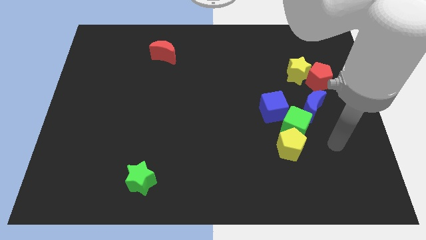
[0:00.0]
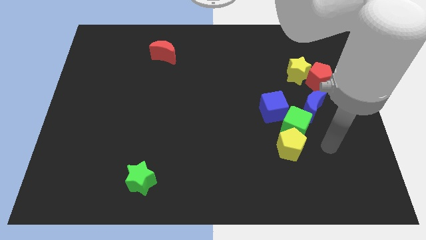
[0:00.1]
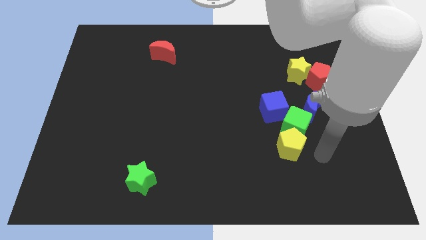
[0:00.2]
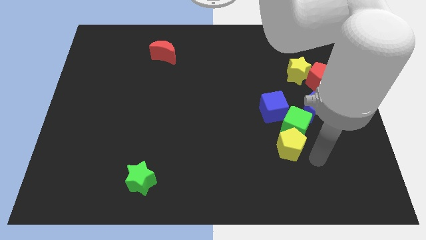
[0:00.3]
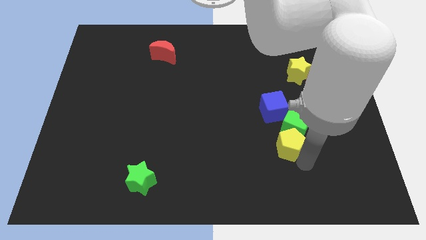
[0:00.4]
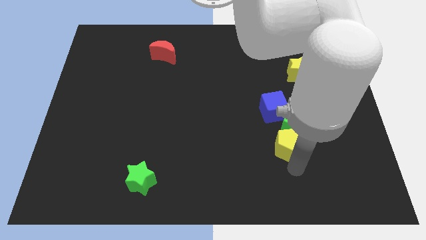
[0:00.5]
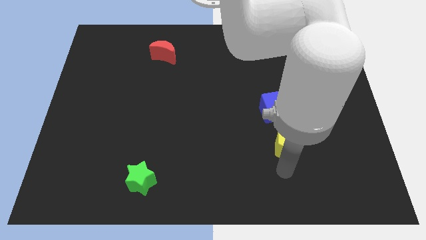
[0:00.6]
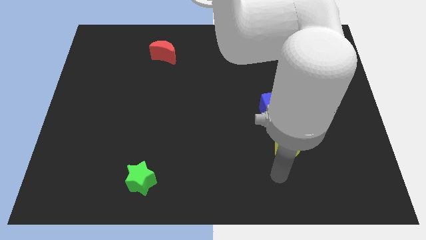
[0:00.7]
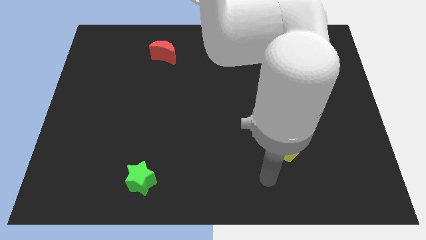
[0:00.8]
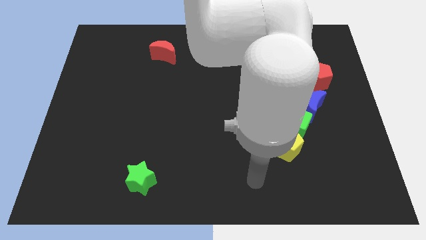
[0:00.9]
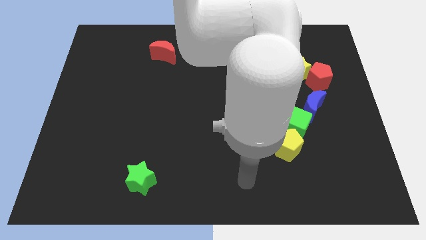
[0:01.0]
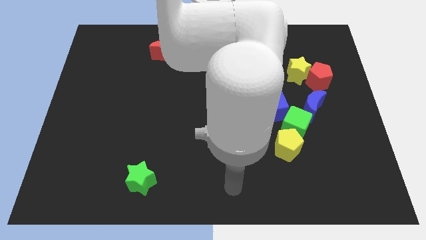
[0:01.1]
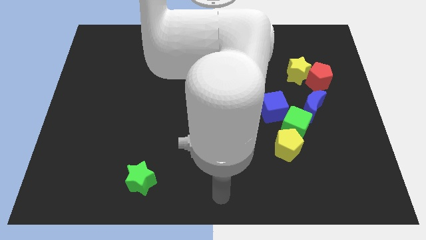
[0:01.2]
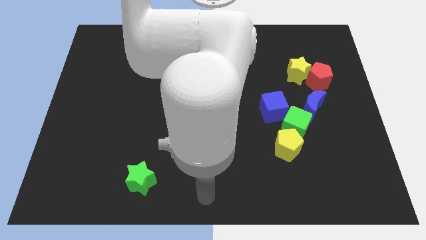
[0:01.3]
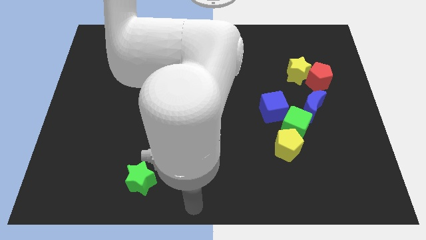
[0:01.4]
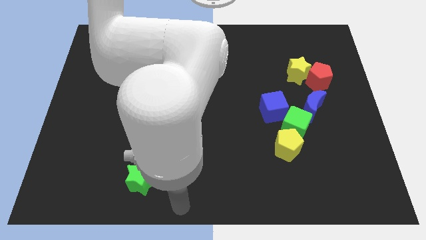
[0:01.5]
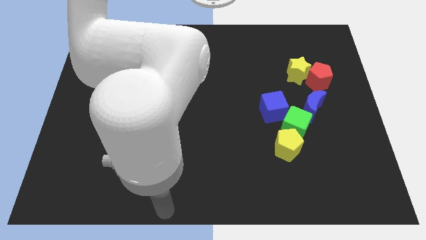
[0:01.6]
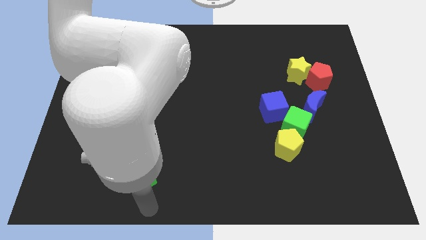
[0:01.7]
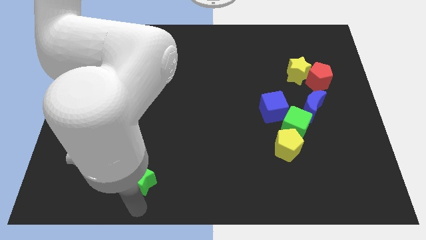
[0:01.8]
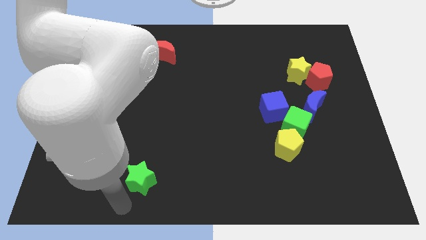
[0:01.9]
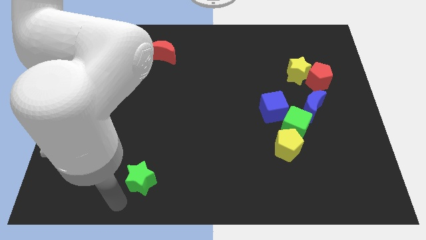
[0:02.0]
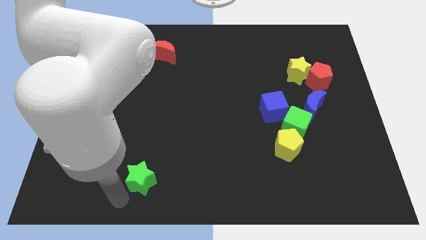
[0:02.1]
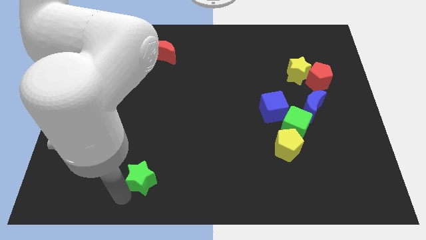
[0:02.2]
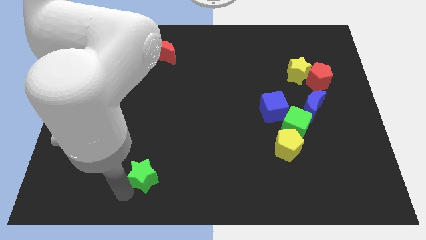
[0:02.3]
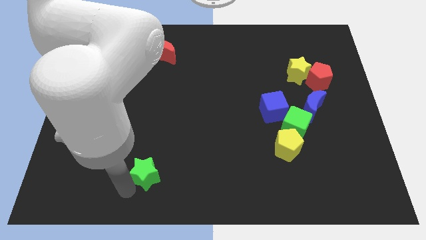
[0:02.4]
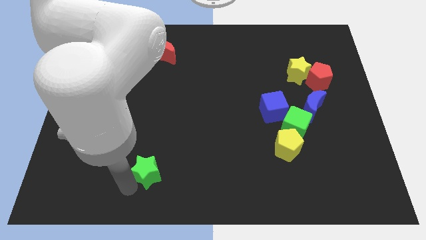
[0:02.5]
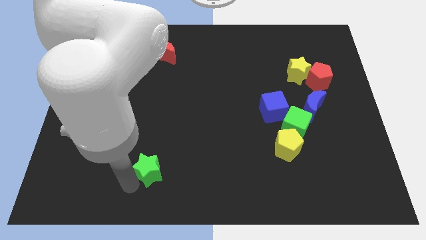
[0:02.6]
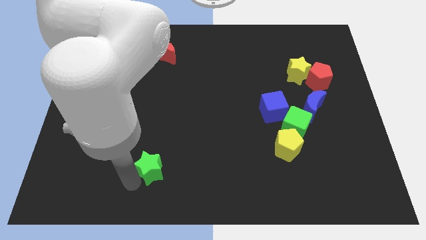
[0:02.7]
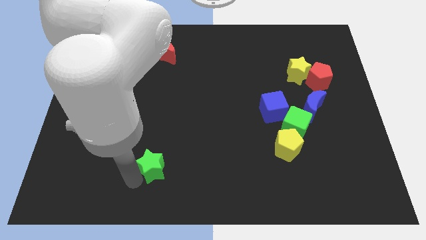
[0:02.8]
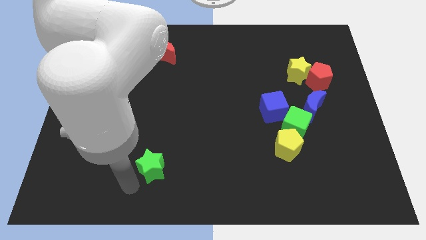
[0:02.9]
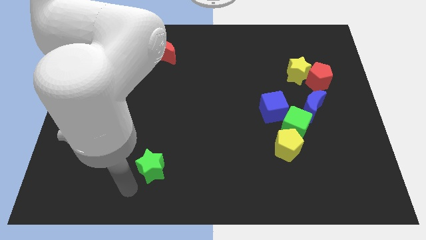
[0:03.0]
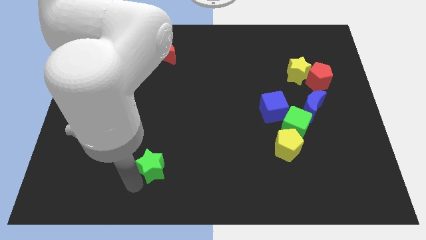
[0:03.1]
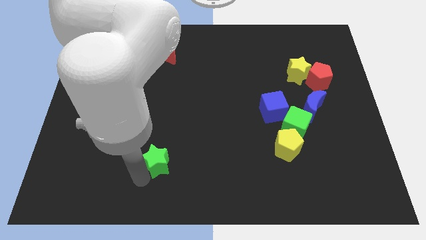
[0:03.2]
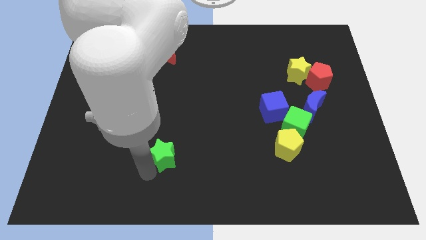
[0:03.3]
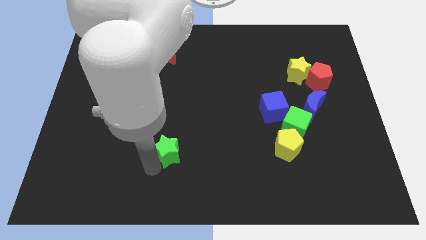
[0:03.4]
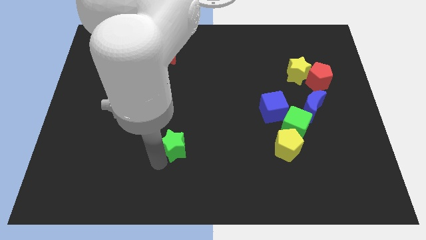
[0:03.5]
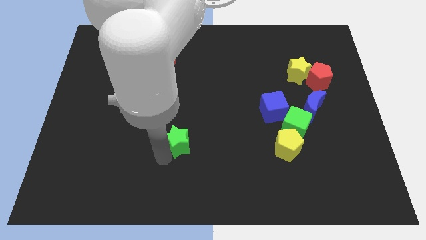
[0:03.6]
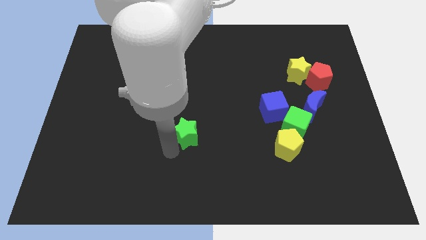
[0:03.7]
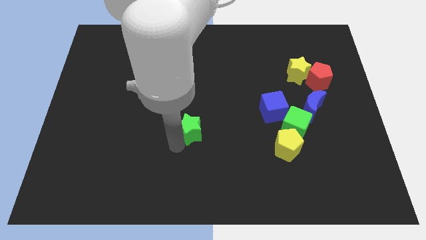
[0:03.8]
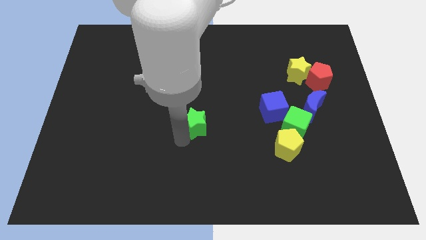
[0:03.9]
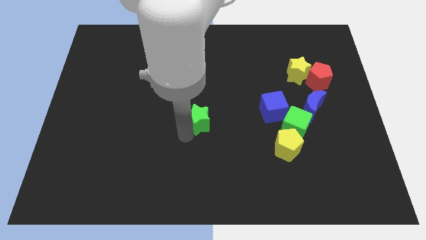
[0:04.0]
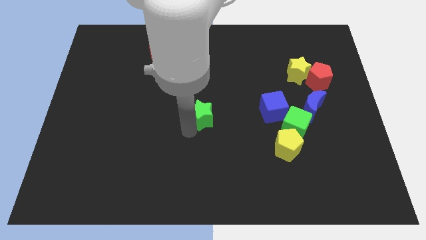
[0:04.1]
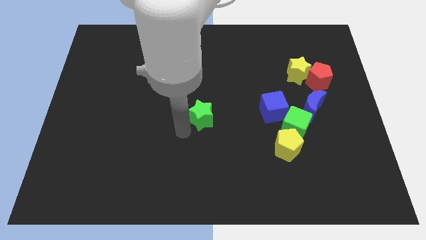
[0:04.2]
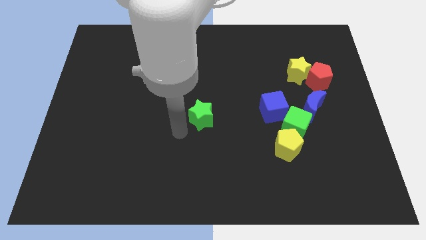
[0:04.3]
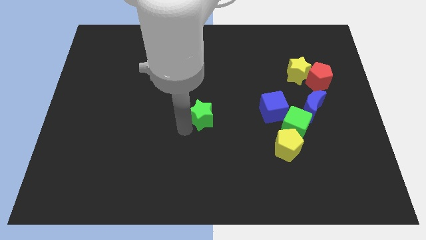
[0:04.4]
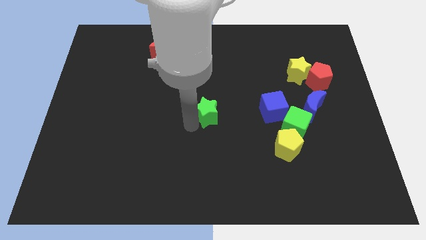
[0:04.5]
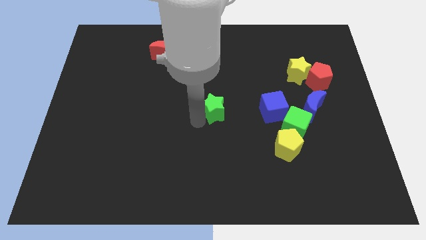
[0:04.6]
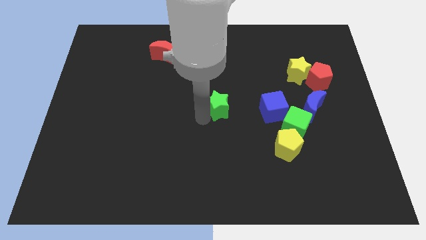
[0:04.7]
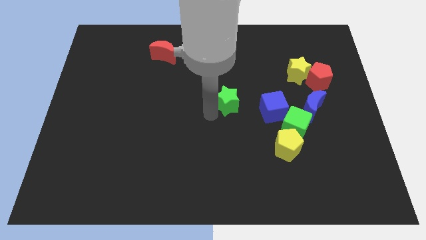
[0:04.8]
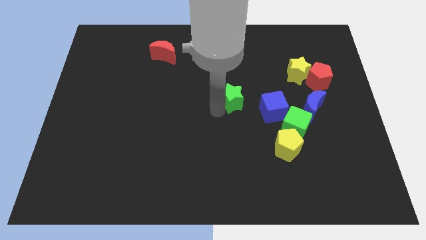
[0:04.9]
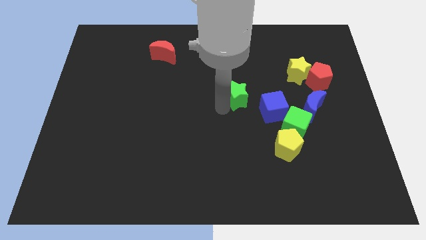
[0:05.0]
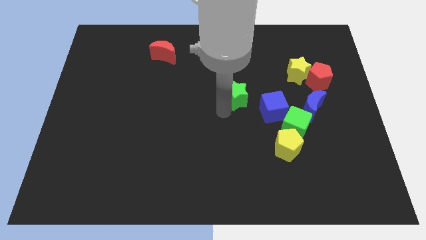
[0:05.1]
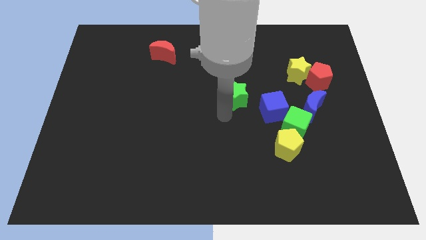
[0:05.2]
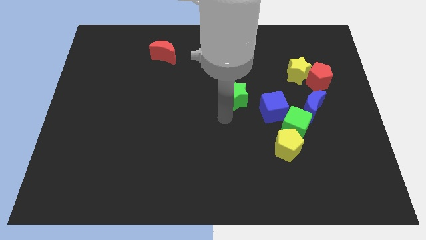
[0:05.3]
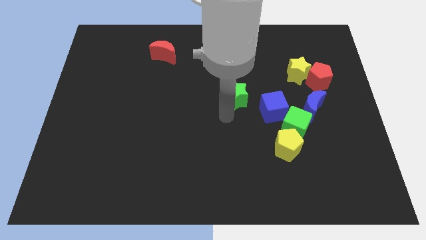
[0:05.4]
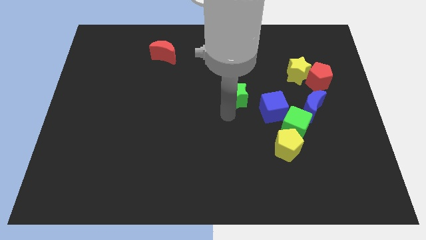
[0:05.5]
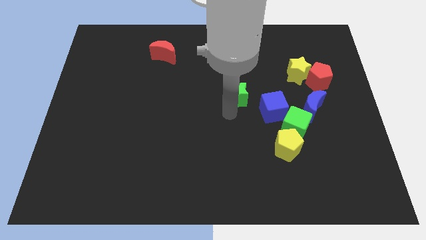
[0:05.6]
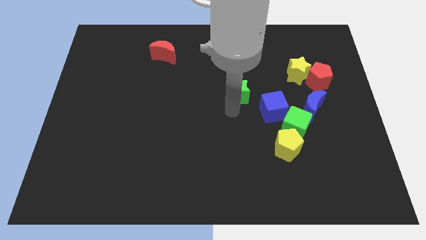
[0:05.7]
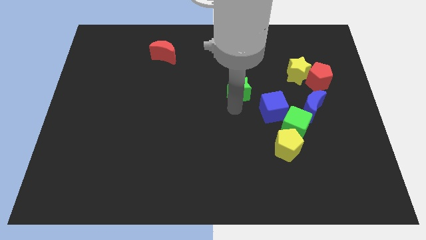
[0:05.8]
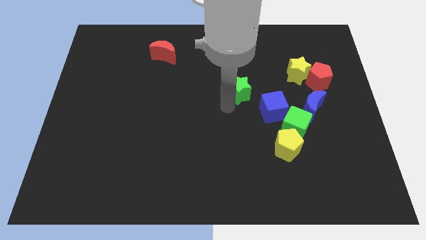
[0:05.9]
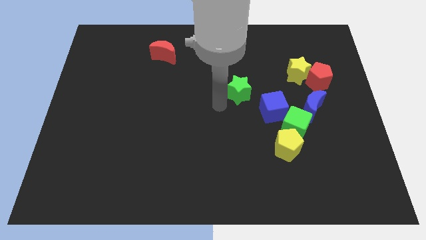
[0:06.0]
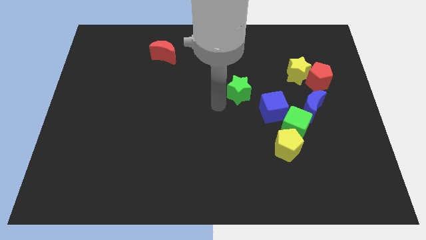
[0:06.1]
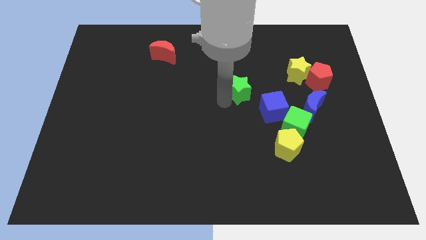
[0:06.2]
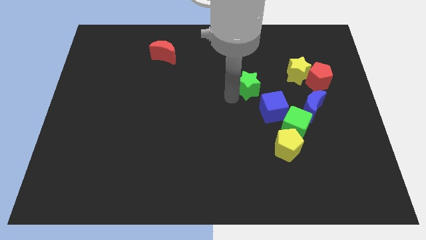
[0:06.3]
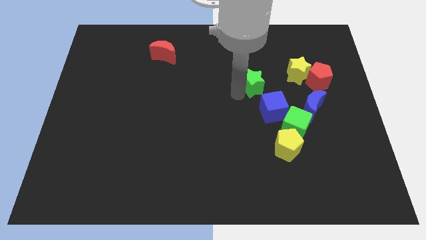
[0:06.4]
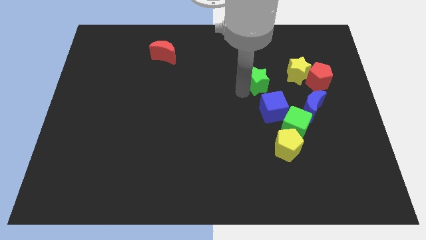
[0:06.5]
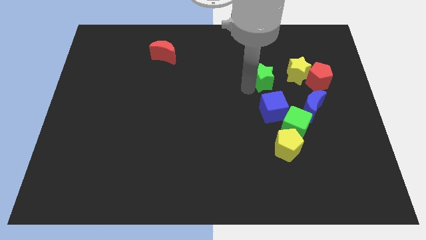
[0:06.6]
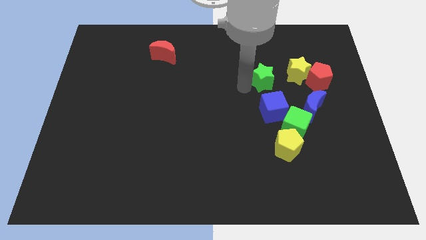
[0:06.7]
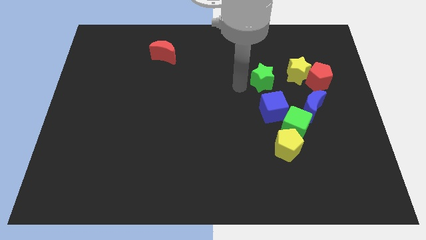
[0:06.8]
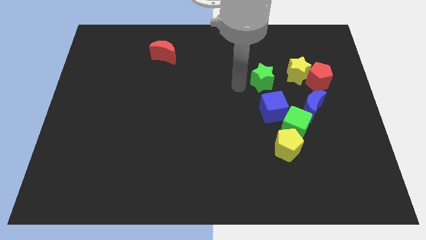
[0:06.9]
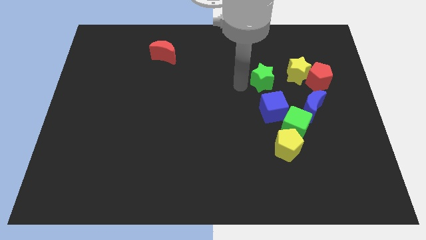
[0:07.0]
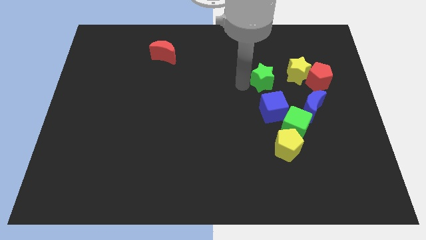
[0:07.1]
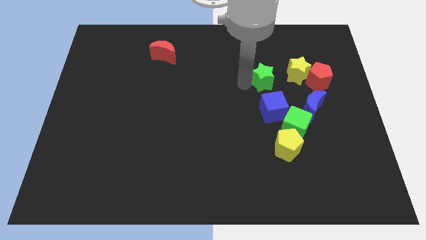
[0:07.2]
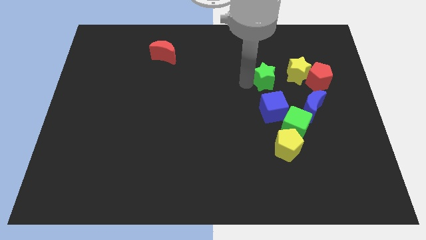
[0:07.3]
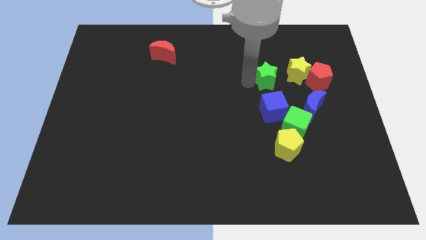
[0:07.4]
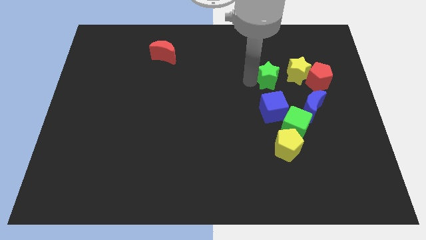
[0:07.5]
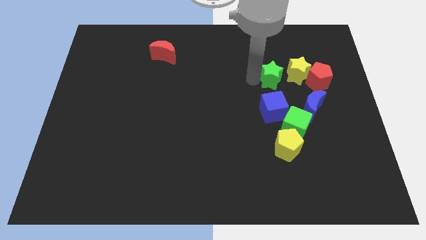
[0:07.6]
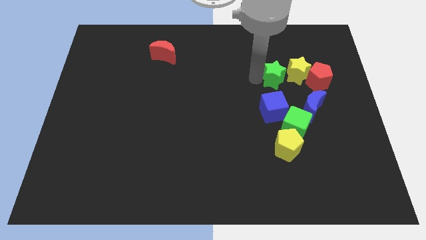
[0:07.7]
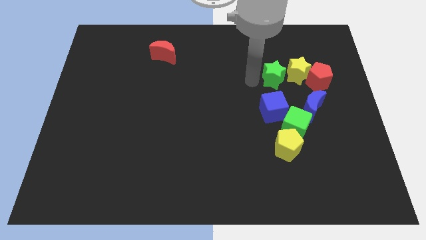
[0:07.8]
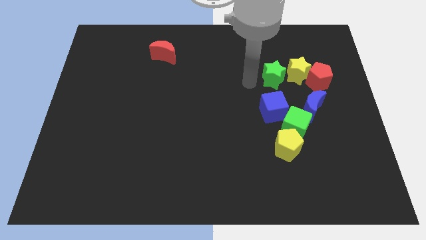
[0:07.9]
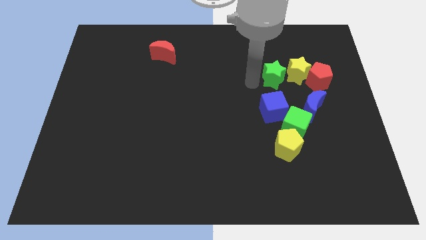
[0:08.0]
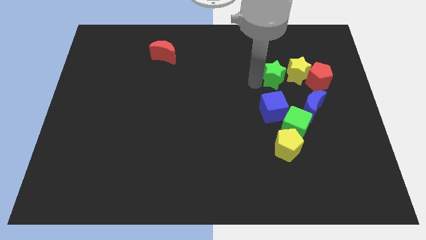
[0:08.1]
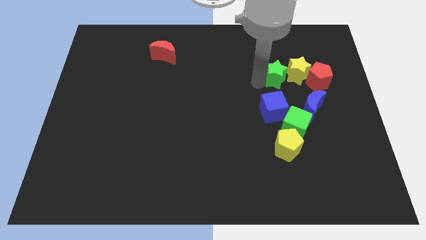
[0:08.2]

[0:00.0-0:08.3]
slide the green star next to the yellow star
